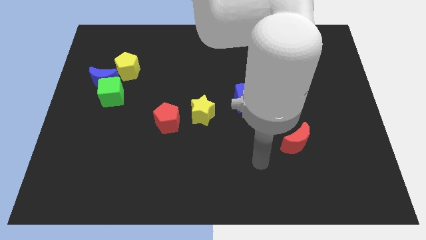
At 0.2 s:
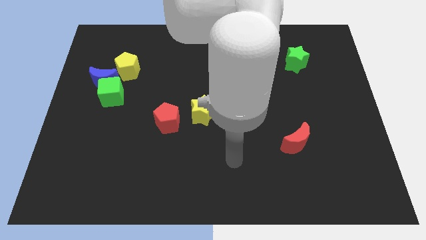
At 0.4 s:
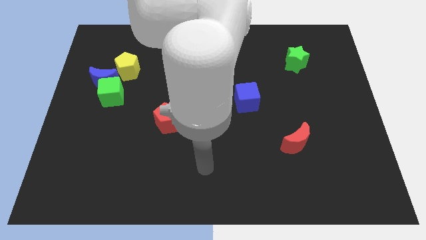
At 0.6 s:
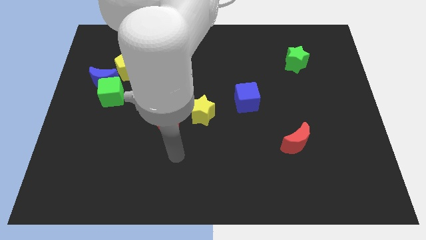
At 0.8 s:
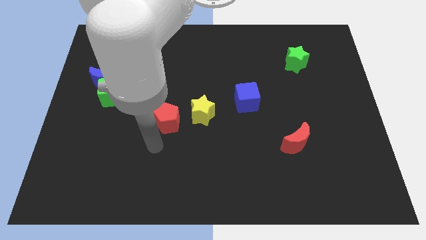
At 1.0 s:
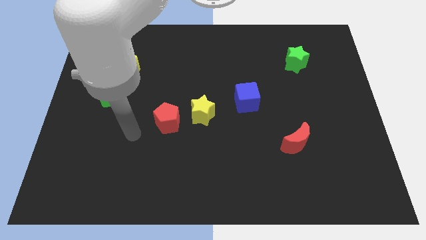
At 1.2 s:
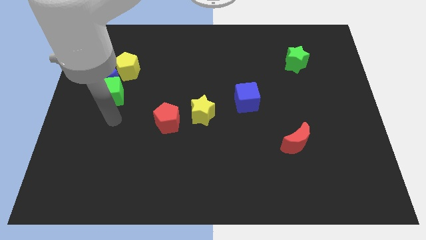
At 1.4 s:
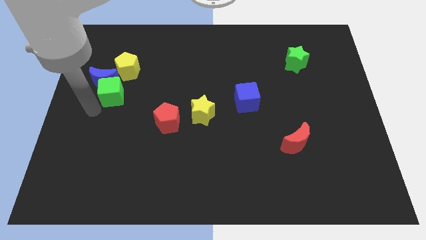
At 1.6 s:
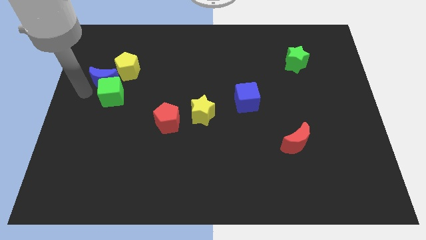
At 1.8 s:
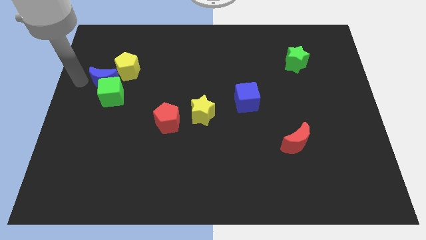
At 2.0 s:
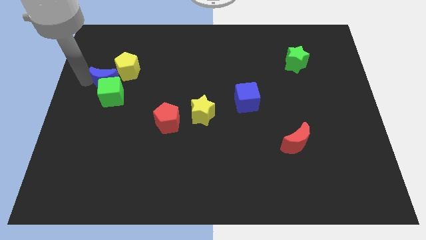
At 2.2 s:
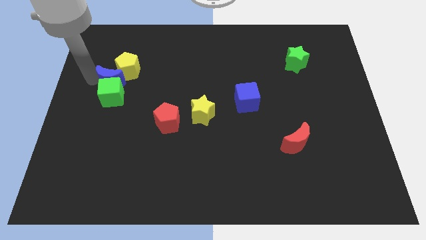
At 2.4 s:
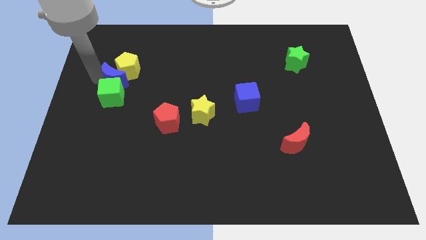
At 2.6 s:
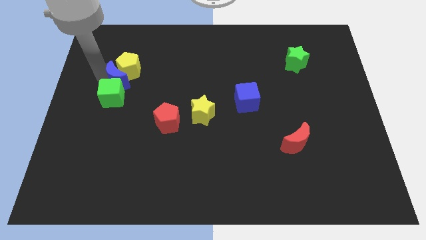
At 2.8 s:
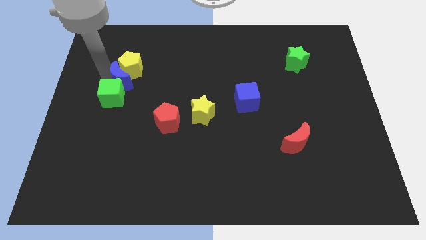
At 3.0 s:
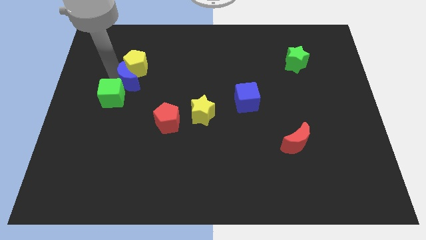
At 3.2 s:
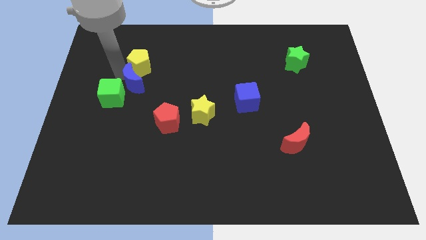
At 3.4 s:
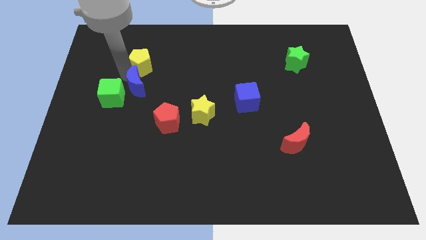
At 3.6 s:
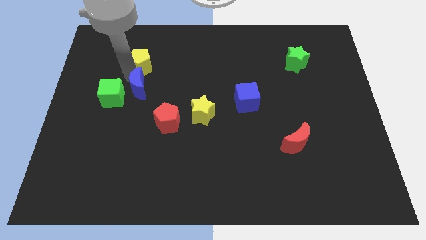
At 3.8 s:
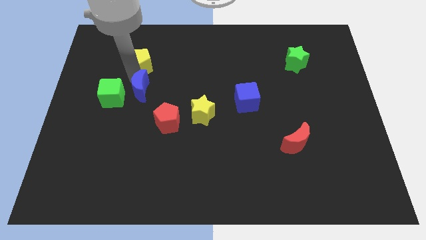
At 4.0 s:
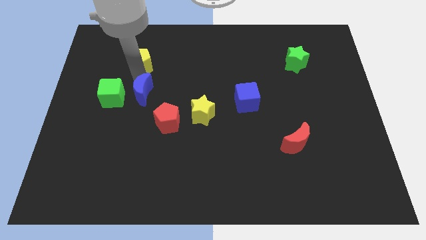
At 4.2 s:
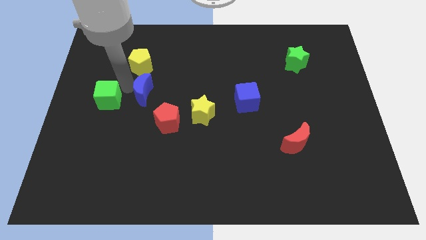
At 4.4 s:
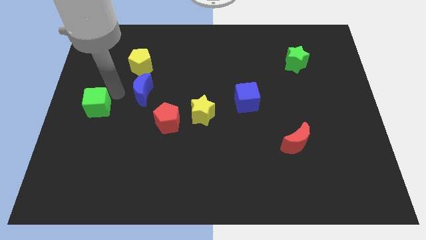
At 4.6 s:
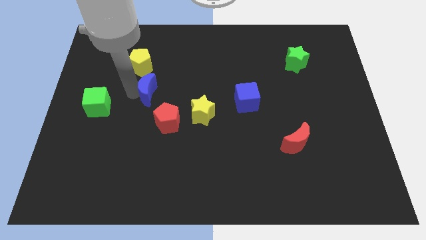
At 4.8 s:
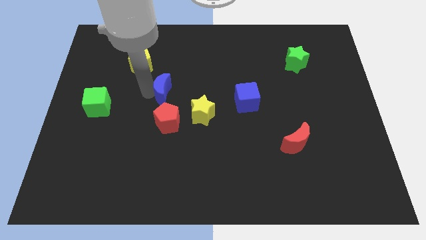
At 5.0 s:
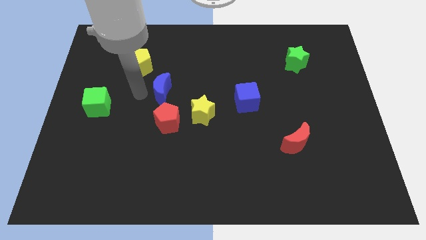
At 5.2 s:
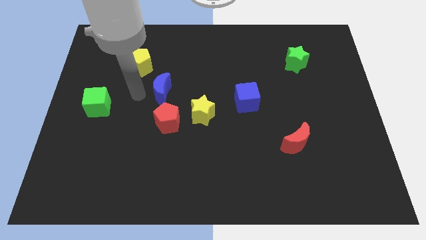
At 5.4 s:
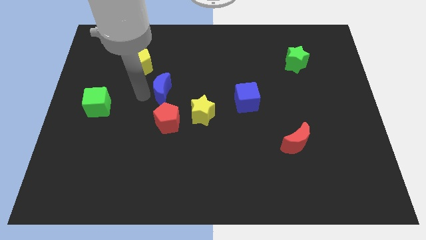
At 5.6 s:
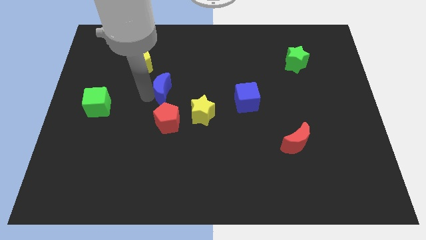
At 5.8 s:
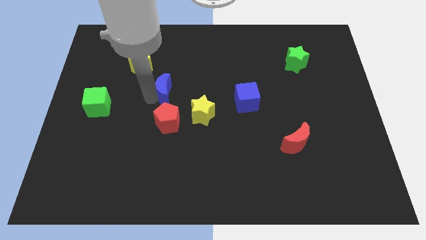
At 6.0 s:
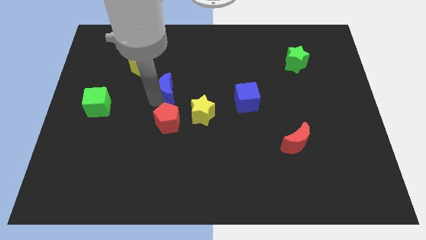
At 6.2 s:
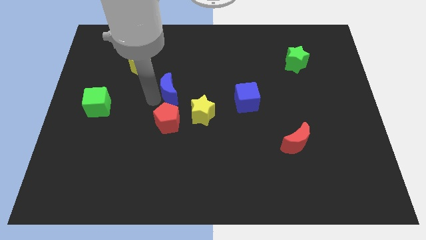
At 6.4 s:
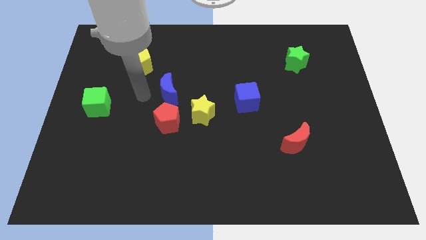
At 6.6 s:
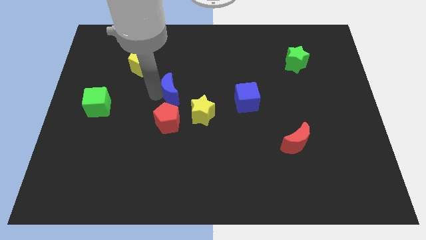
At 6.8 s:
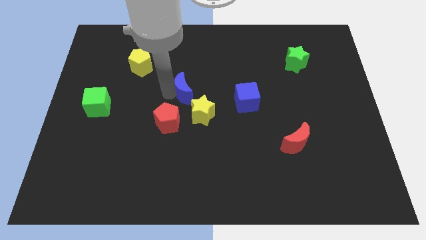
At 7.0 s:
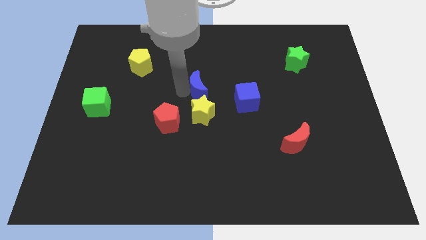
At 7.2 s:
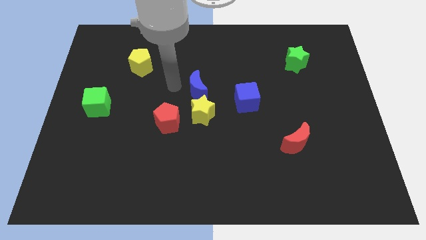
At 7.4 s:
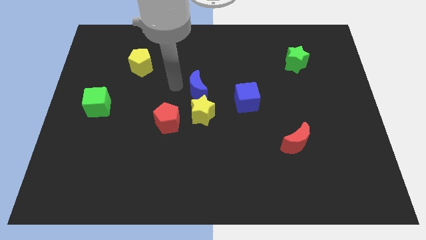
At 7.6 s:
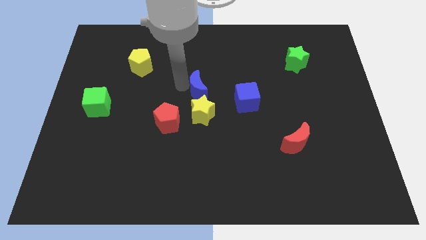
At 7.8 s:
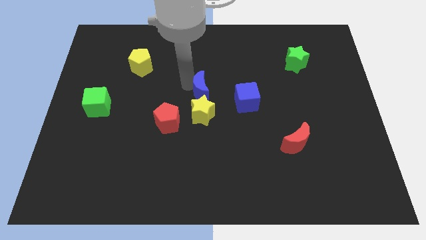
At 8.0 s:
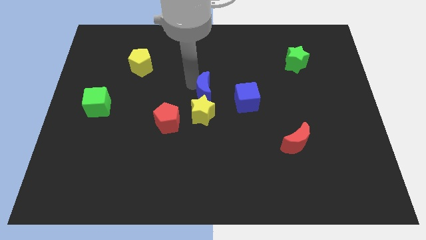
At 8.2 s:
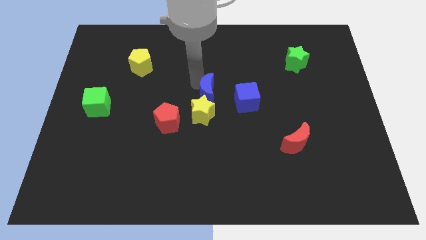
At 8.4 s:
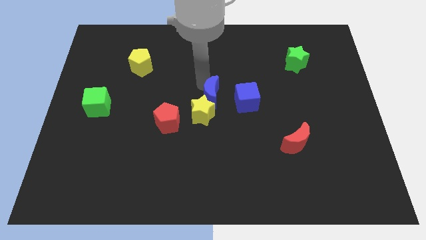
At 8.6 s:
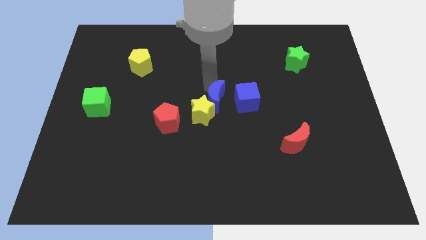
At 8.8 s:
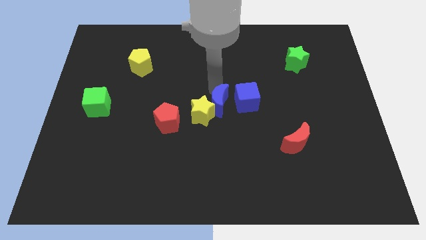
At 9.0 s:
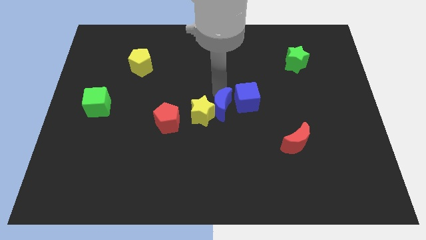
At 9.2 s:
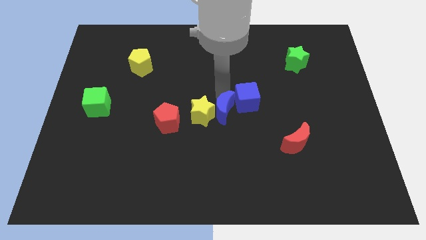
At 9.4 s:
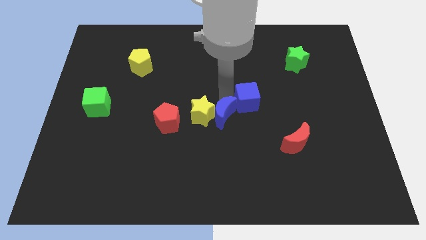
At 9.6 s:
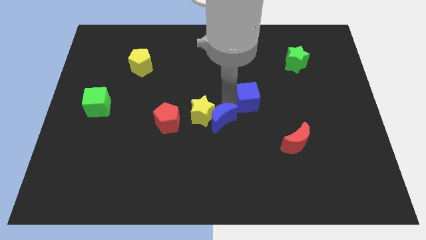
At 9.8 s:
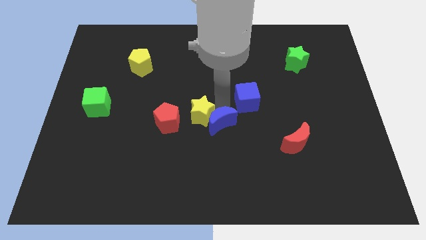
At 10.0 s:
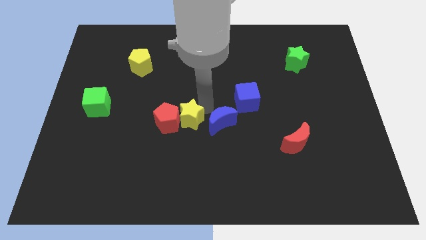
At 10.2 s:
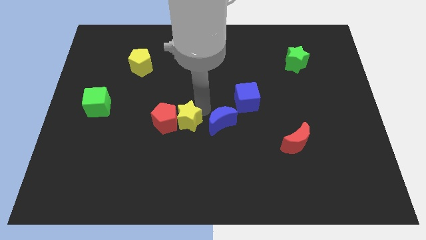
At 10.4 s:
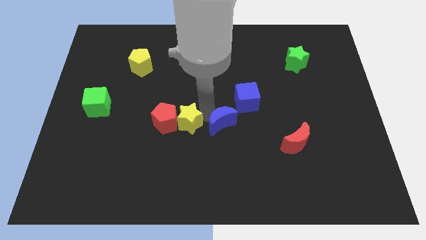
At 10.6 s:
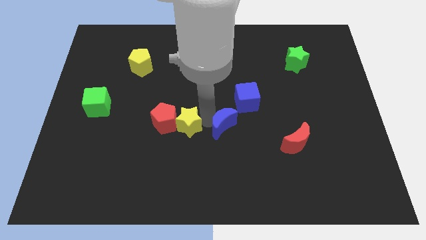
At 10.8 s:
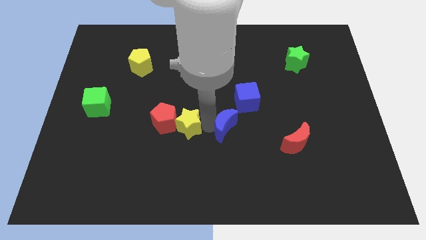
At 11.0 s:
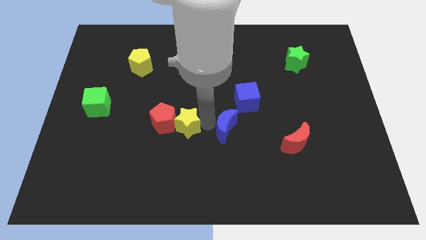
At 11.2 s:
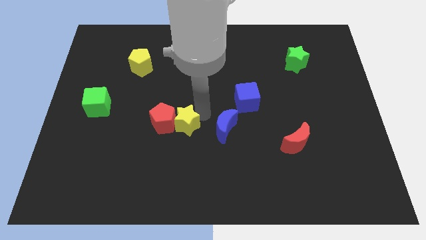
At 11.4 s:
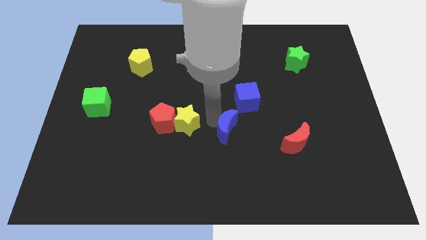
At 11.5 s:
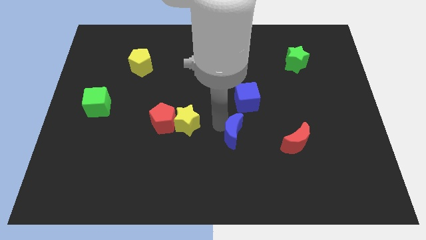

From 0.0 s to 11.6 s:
push the blue moon just left of the red moon

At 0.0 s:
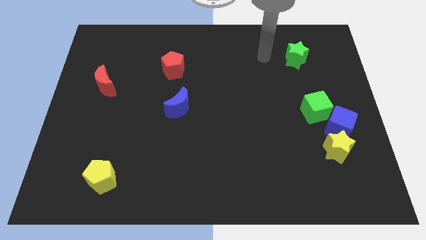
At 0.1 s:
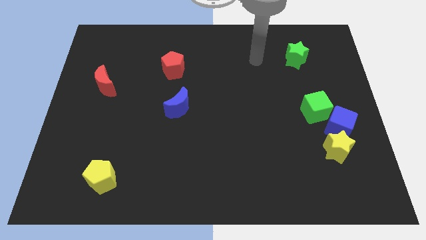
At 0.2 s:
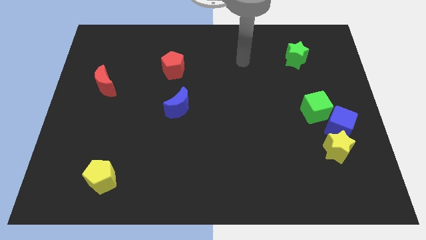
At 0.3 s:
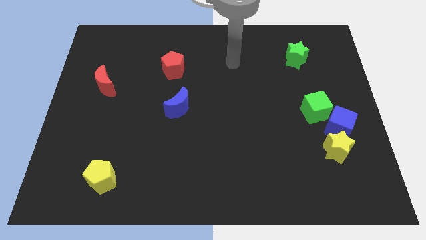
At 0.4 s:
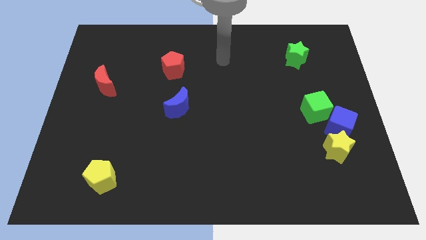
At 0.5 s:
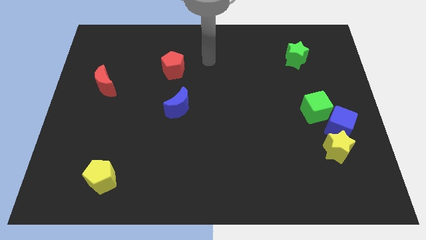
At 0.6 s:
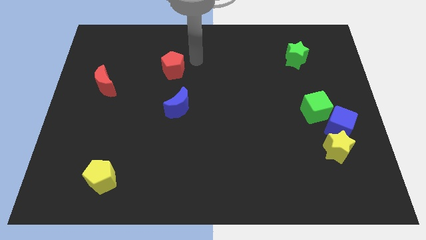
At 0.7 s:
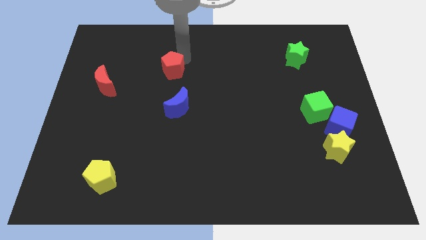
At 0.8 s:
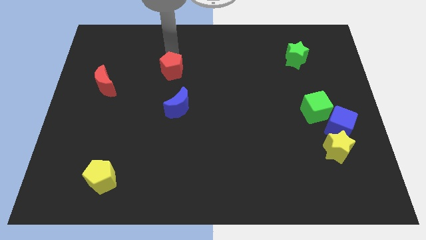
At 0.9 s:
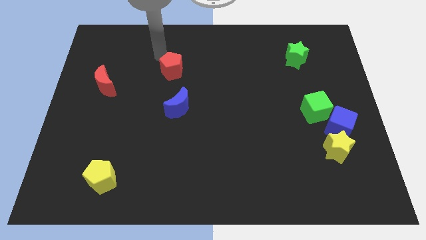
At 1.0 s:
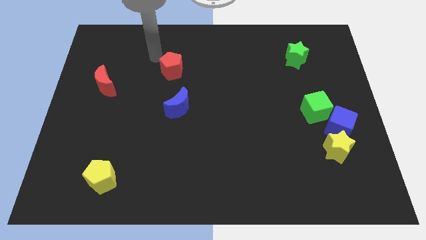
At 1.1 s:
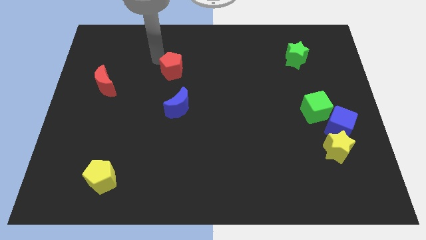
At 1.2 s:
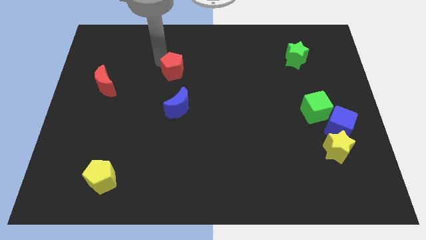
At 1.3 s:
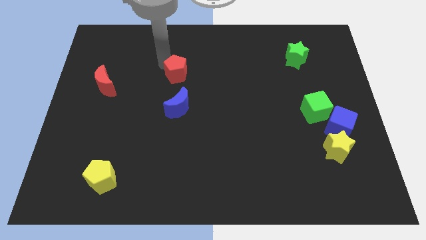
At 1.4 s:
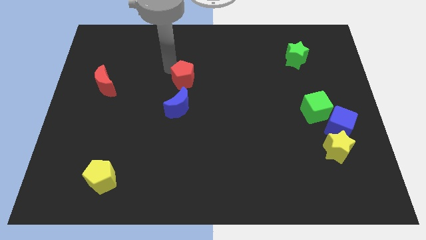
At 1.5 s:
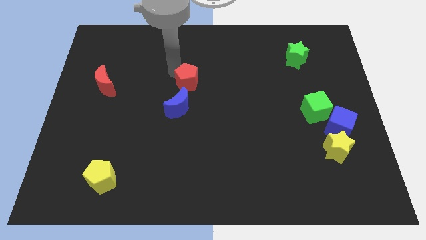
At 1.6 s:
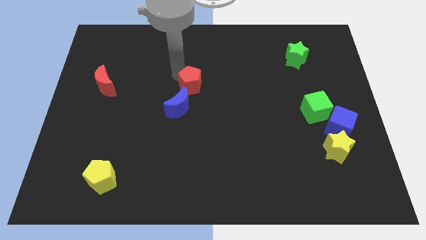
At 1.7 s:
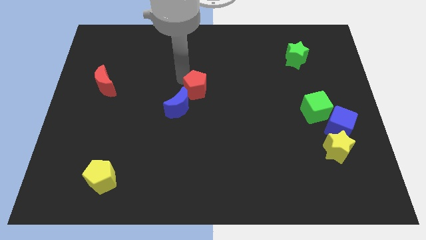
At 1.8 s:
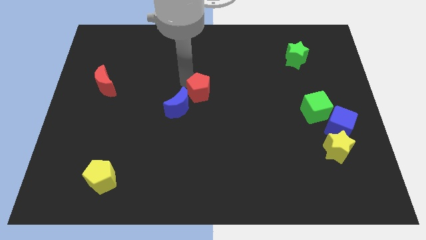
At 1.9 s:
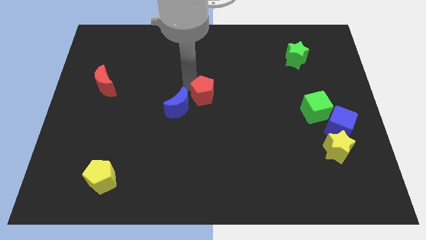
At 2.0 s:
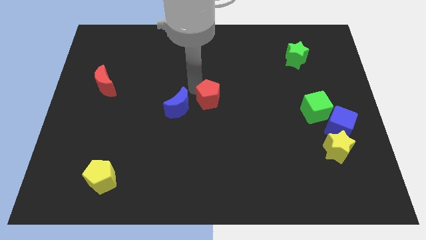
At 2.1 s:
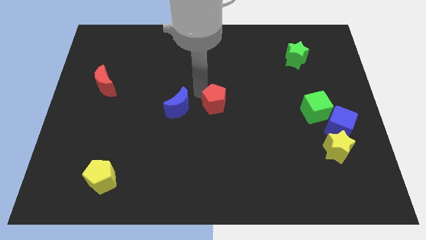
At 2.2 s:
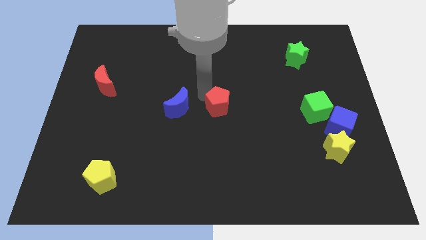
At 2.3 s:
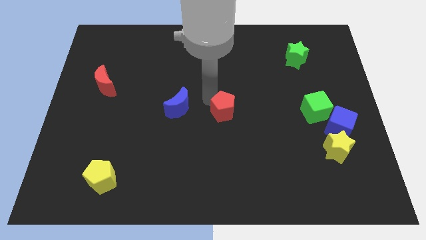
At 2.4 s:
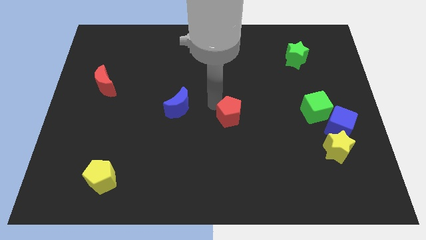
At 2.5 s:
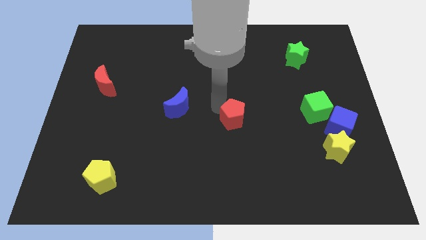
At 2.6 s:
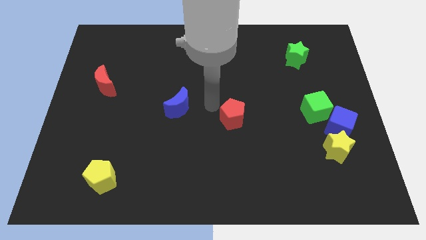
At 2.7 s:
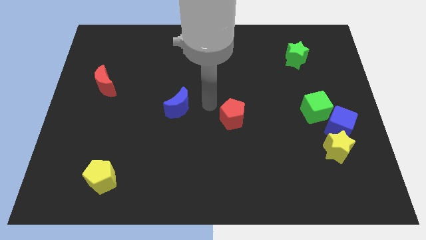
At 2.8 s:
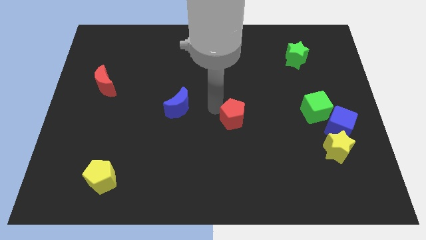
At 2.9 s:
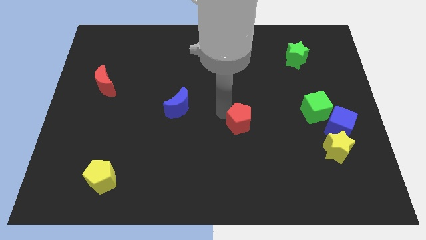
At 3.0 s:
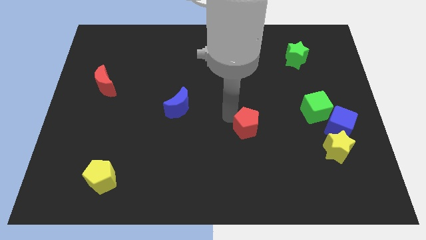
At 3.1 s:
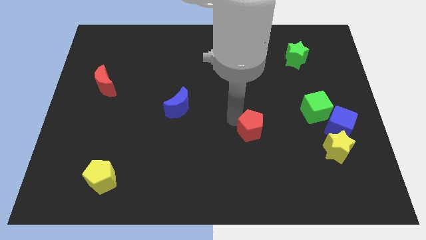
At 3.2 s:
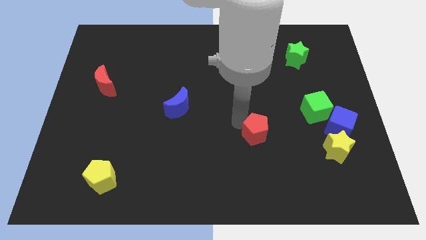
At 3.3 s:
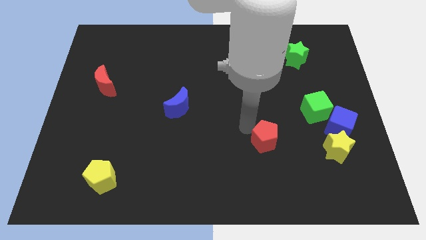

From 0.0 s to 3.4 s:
slide the red pentagon to the left of the yellow star
